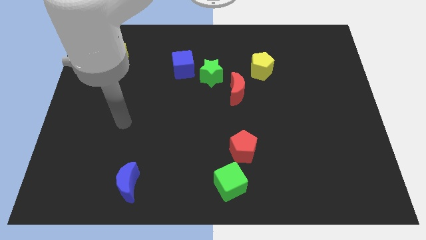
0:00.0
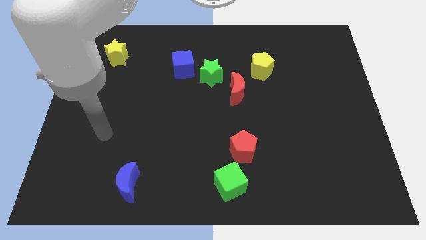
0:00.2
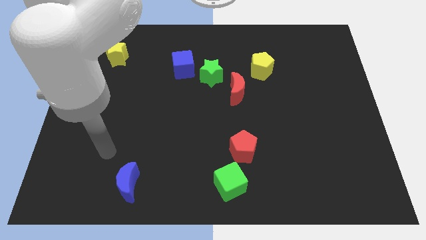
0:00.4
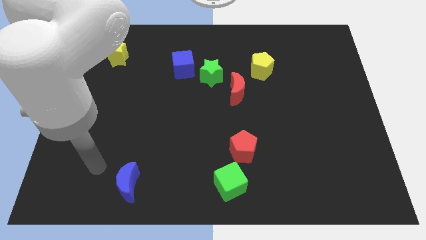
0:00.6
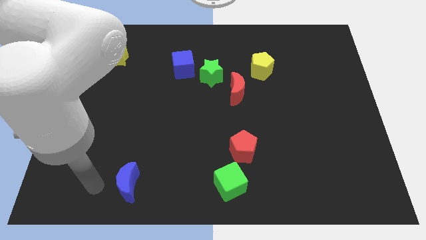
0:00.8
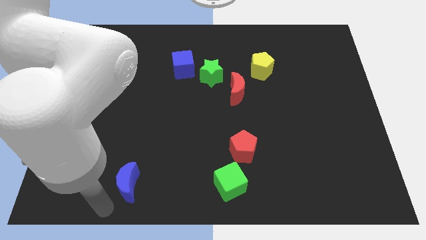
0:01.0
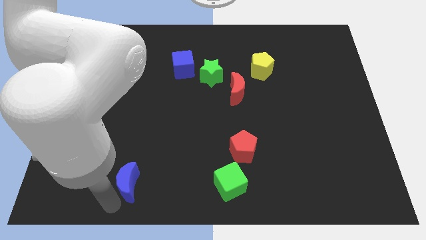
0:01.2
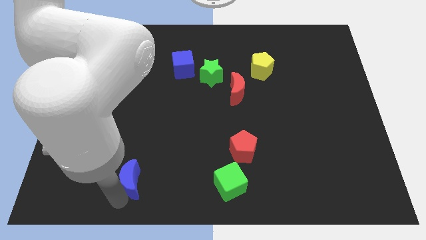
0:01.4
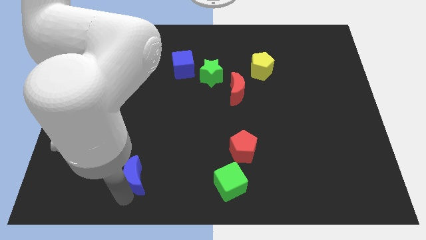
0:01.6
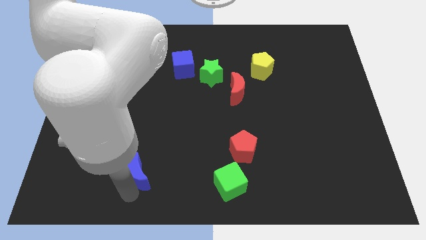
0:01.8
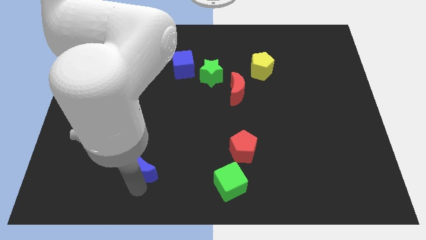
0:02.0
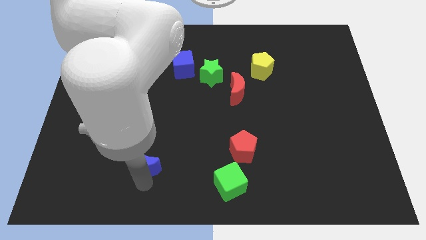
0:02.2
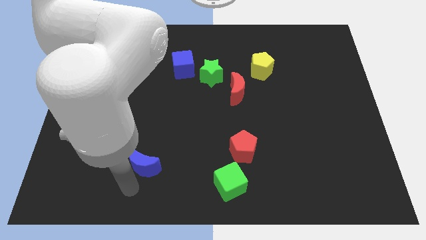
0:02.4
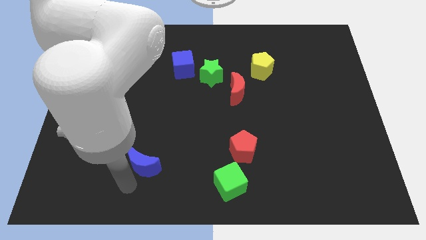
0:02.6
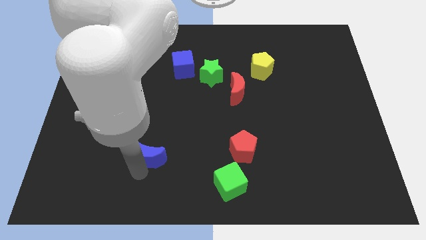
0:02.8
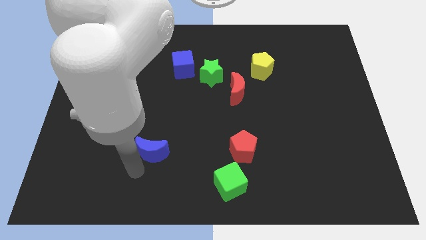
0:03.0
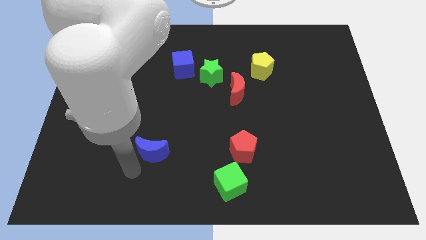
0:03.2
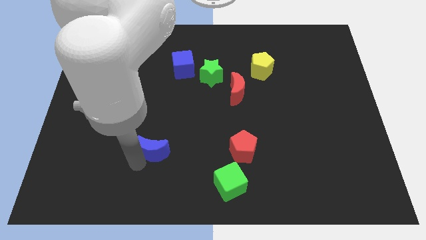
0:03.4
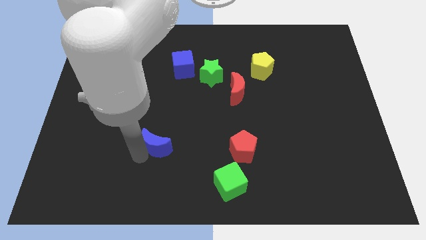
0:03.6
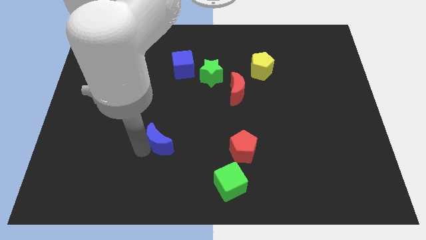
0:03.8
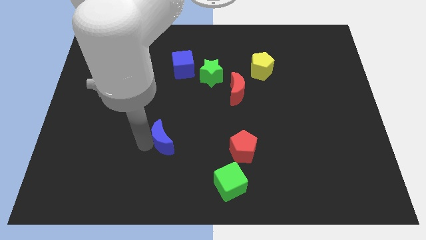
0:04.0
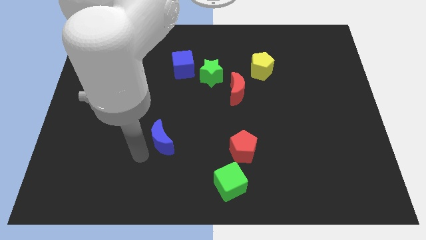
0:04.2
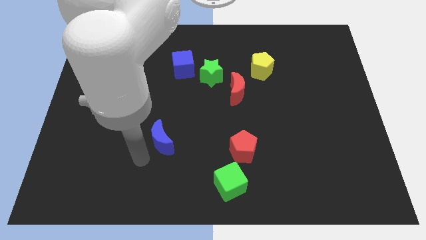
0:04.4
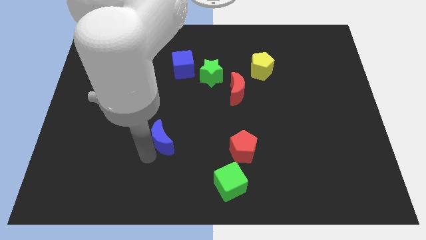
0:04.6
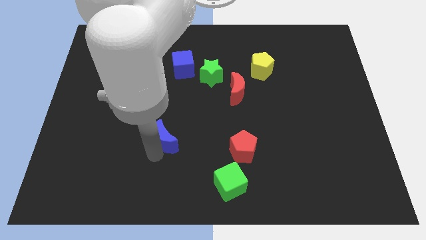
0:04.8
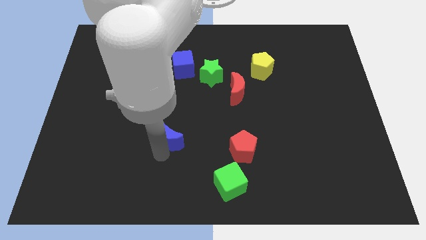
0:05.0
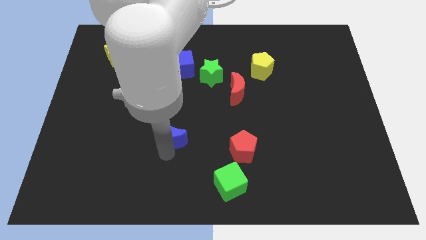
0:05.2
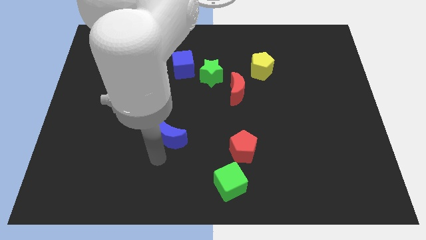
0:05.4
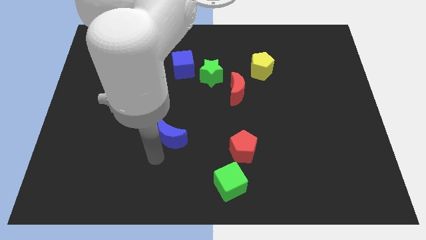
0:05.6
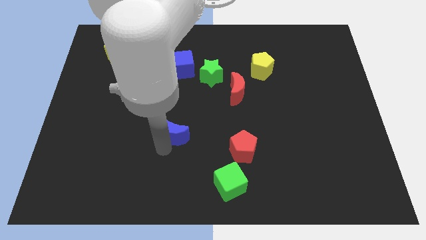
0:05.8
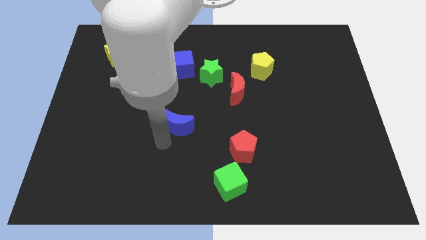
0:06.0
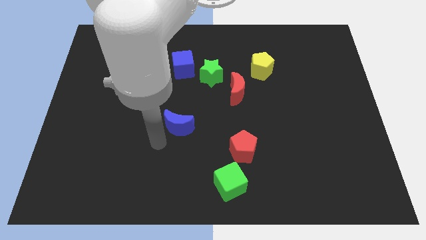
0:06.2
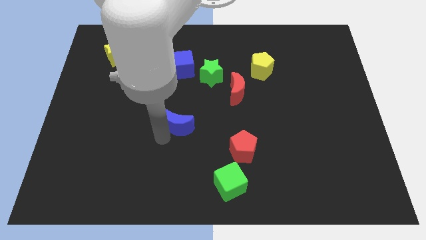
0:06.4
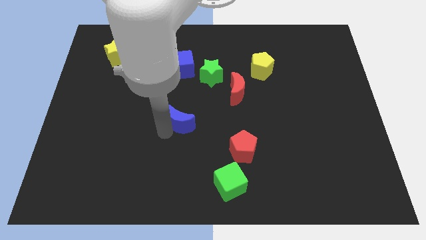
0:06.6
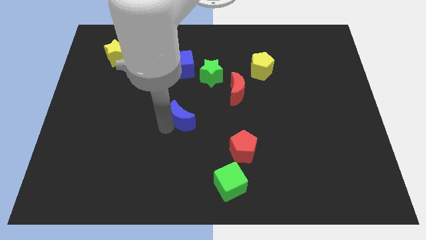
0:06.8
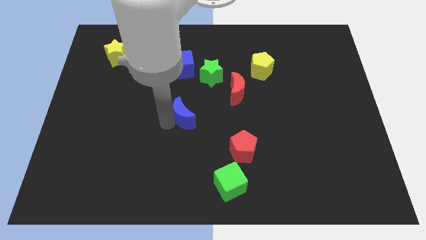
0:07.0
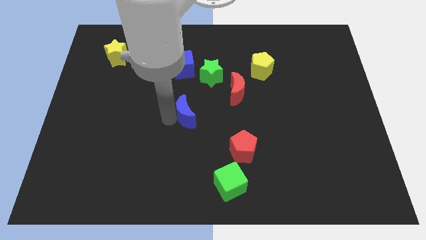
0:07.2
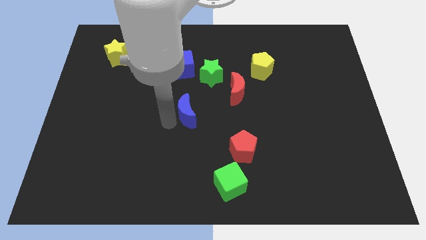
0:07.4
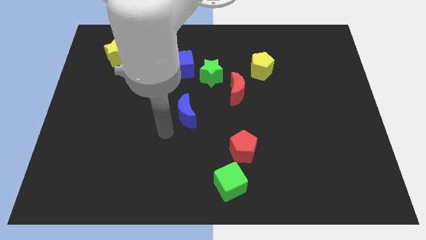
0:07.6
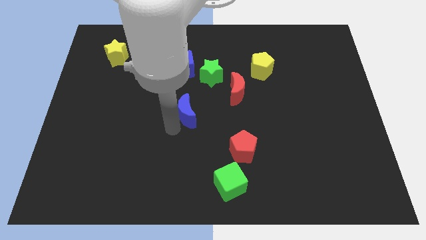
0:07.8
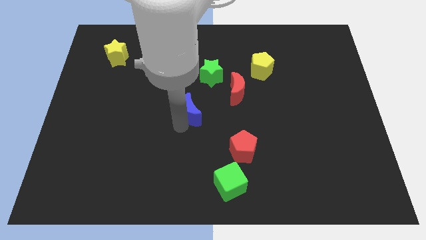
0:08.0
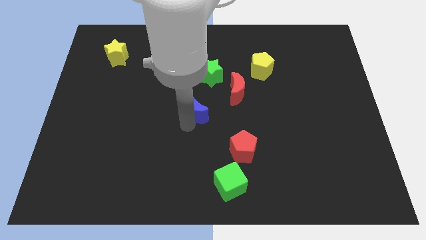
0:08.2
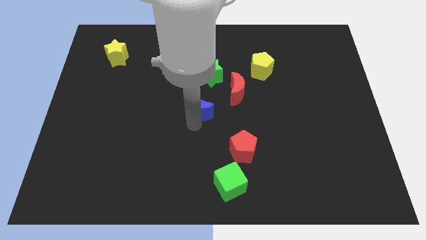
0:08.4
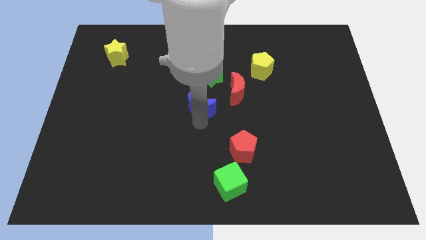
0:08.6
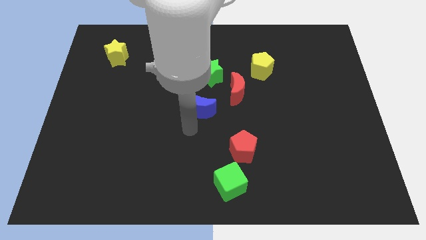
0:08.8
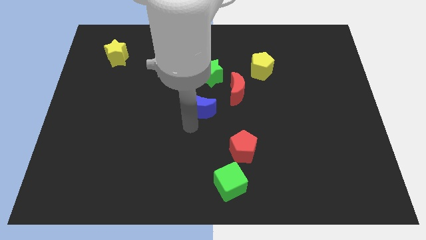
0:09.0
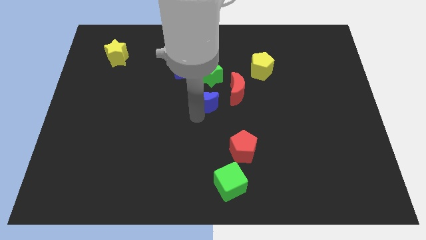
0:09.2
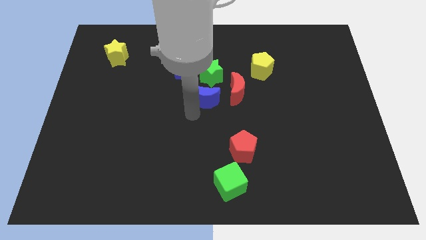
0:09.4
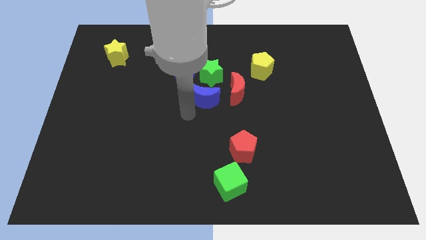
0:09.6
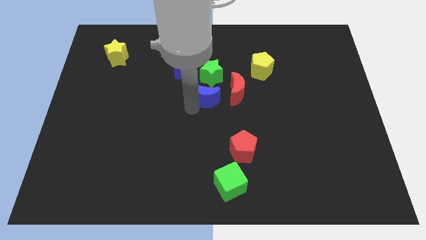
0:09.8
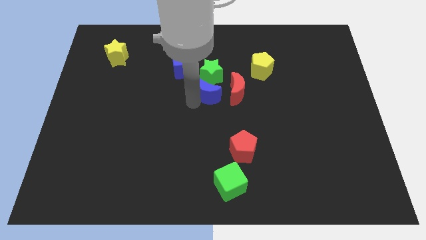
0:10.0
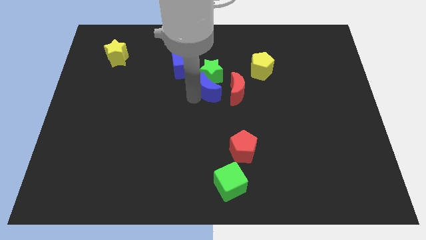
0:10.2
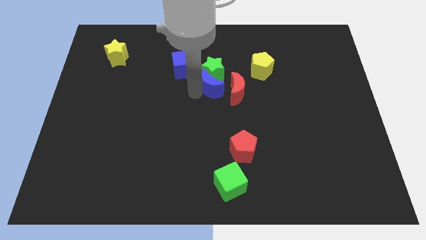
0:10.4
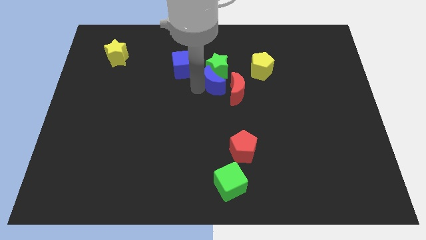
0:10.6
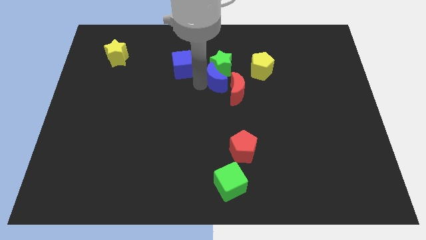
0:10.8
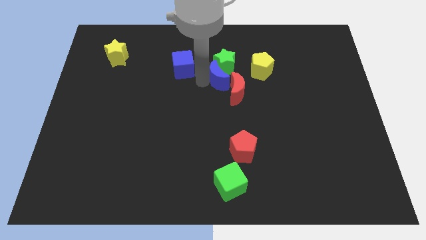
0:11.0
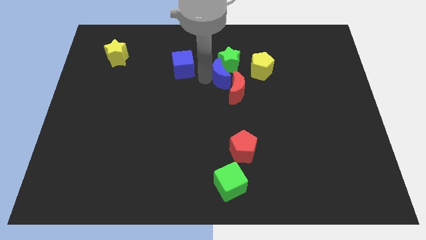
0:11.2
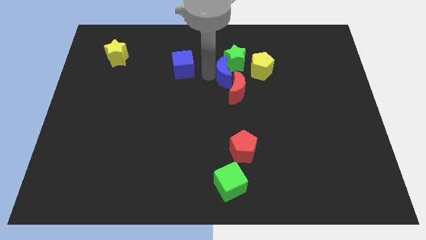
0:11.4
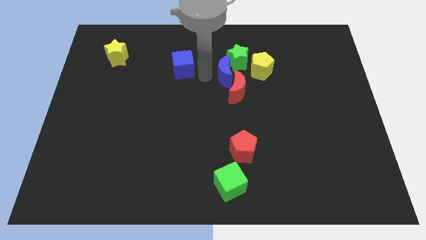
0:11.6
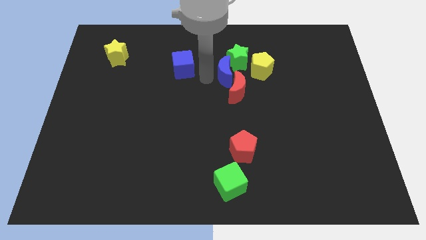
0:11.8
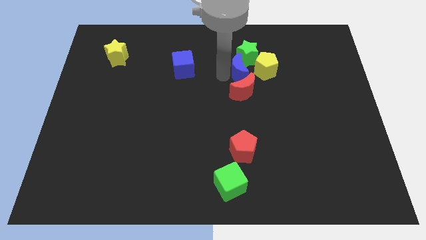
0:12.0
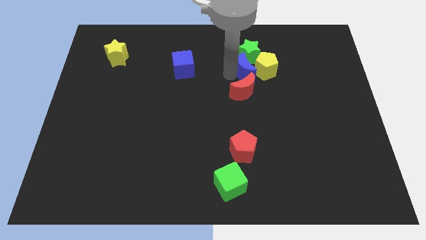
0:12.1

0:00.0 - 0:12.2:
put the blue moon to the yellow pentagon

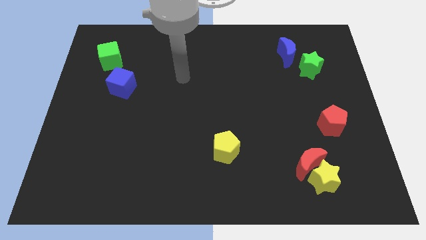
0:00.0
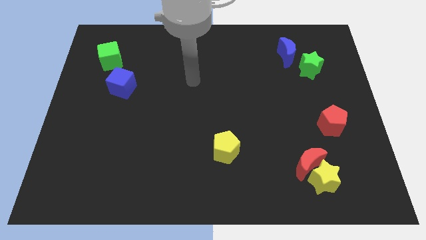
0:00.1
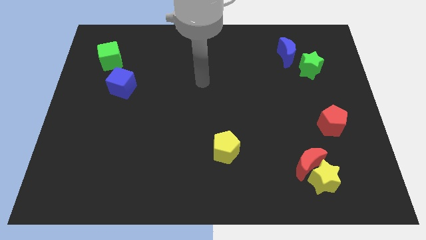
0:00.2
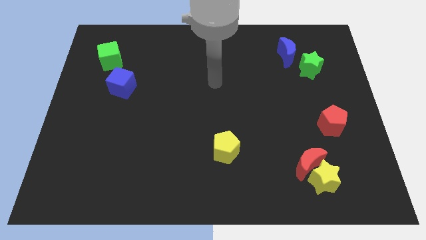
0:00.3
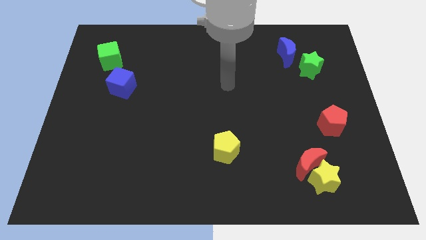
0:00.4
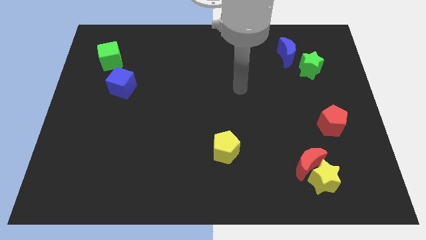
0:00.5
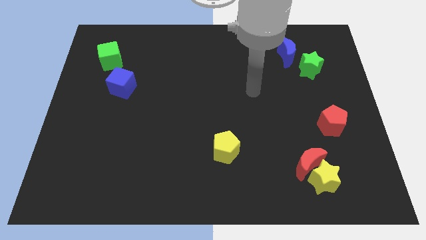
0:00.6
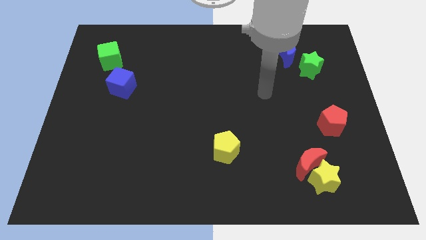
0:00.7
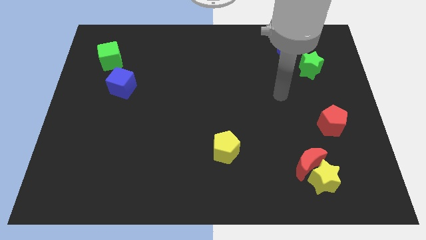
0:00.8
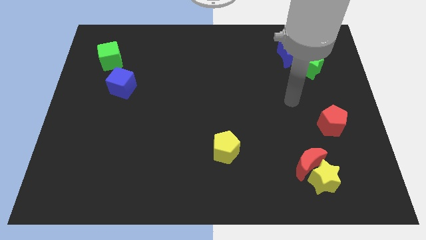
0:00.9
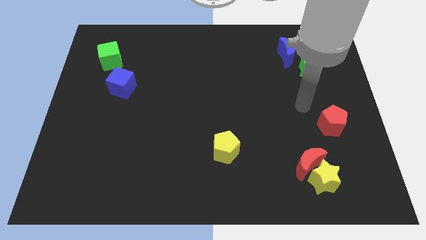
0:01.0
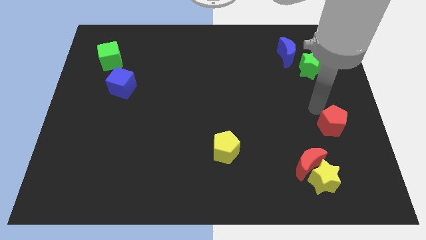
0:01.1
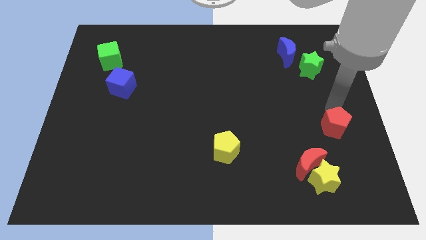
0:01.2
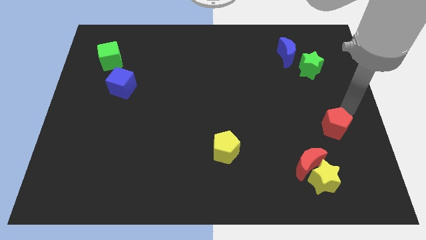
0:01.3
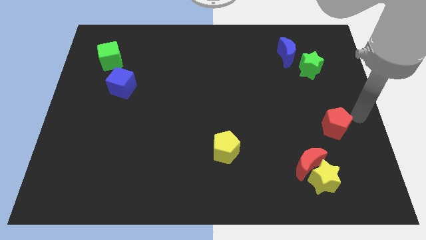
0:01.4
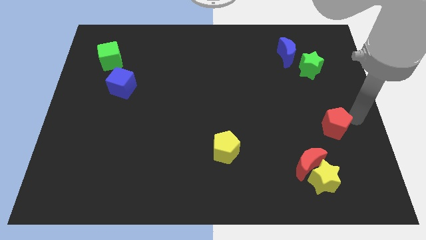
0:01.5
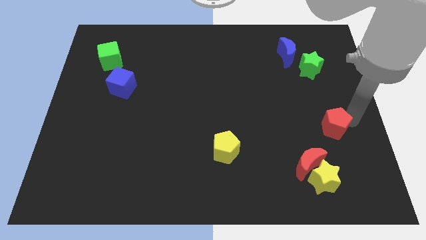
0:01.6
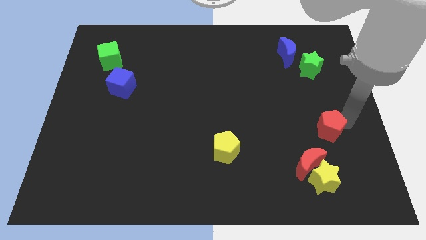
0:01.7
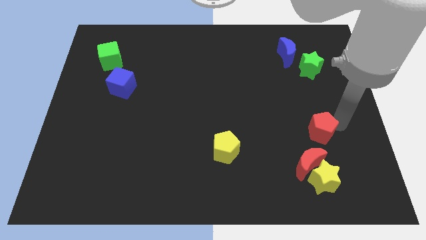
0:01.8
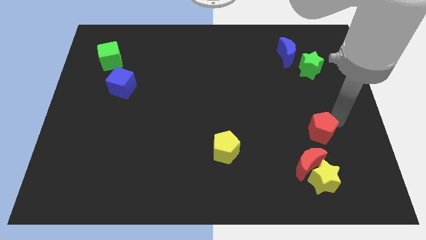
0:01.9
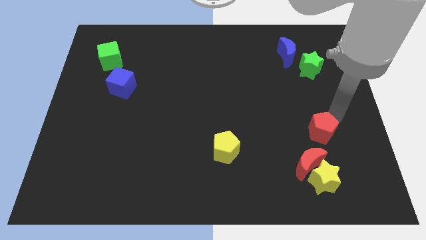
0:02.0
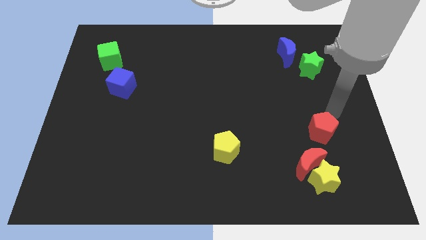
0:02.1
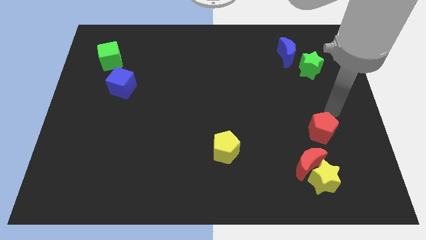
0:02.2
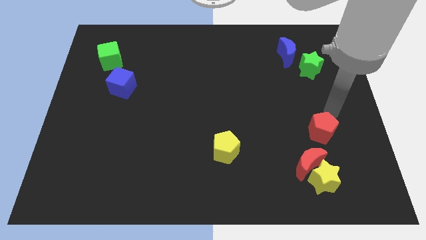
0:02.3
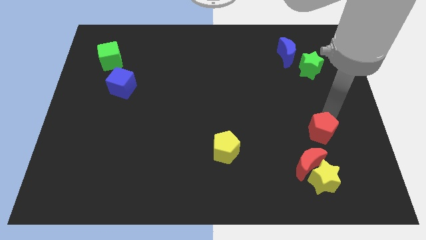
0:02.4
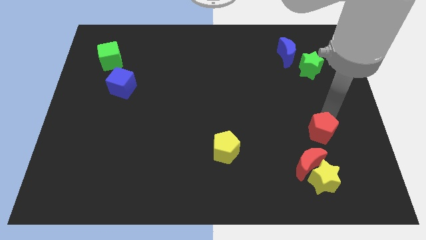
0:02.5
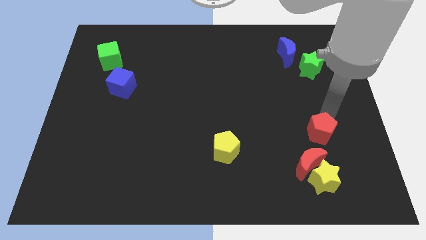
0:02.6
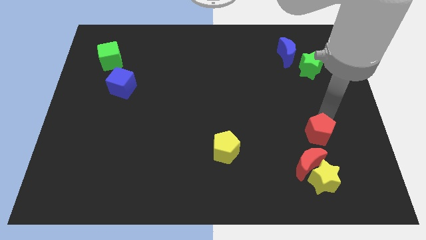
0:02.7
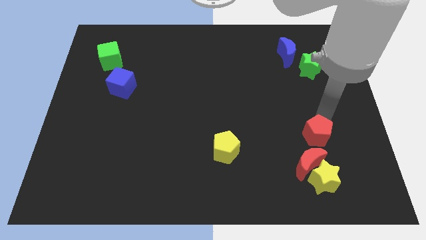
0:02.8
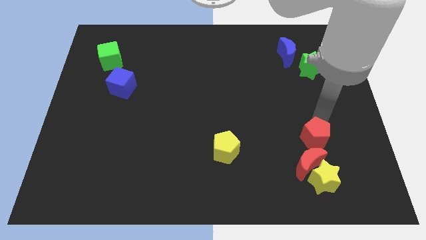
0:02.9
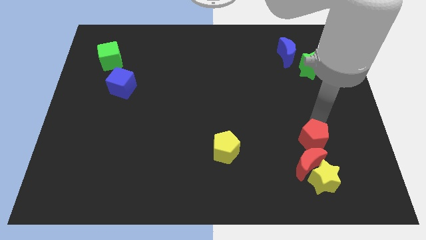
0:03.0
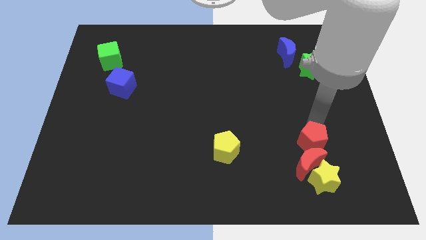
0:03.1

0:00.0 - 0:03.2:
put the red pentagon towards the red moon
